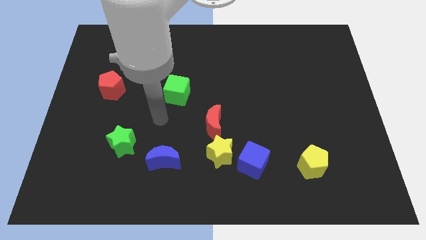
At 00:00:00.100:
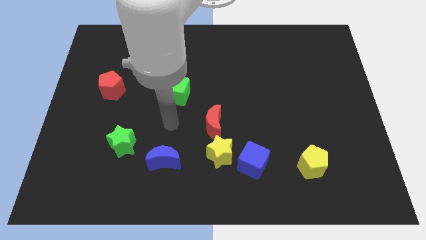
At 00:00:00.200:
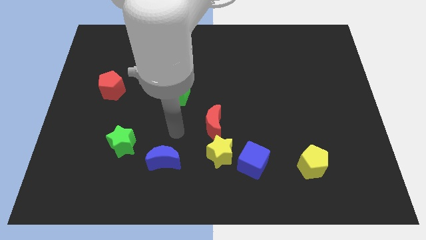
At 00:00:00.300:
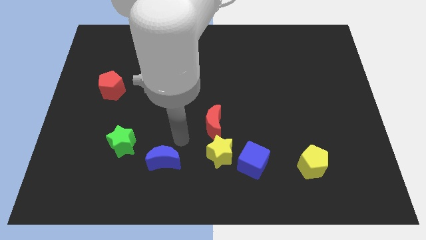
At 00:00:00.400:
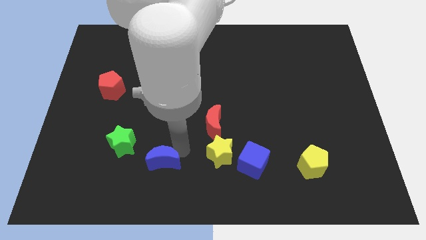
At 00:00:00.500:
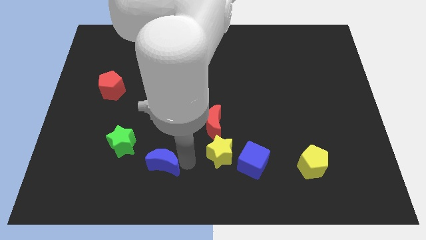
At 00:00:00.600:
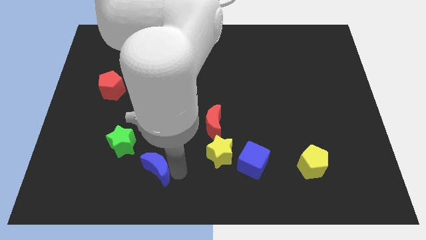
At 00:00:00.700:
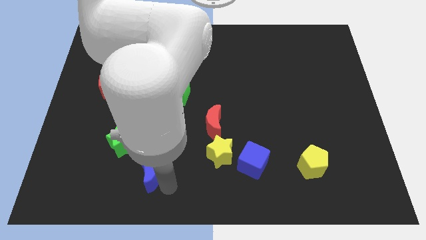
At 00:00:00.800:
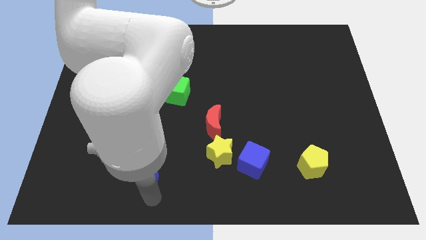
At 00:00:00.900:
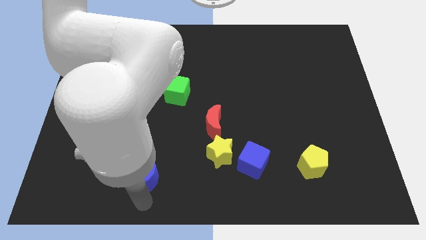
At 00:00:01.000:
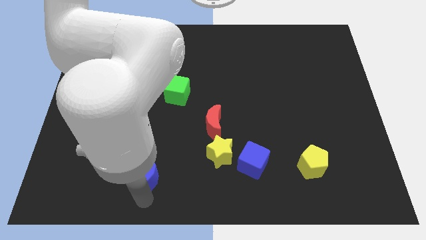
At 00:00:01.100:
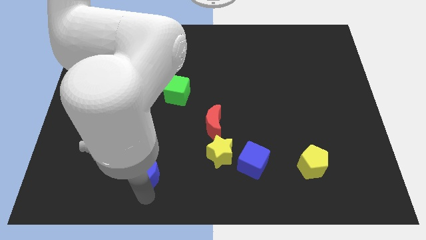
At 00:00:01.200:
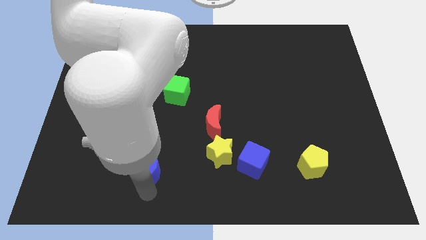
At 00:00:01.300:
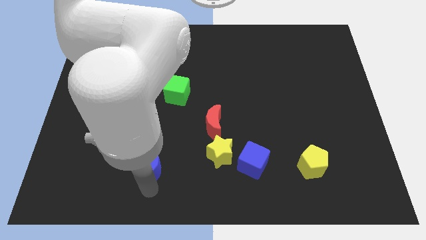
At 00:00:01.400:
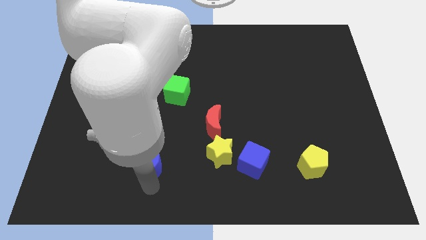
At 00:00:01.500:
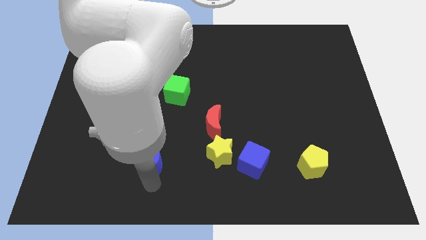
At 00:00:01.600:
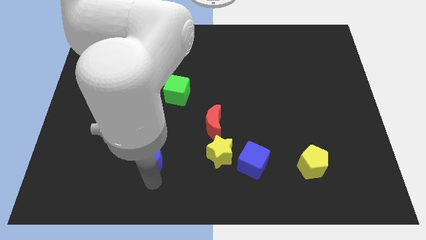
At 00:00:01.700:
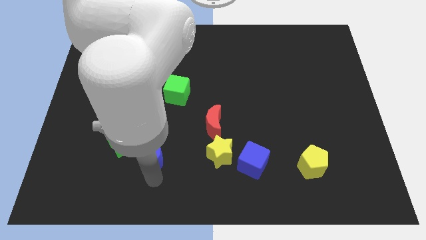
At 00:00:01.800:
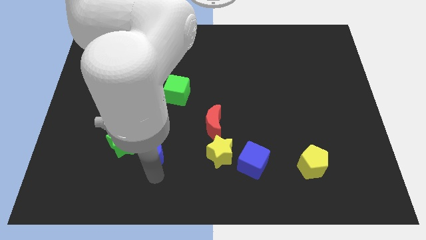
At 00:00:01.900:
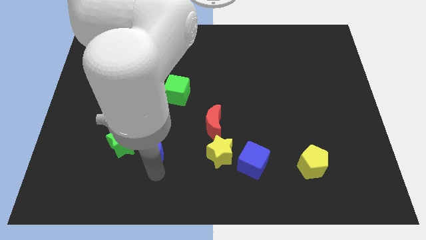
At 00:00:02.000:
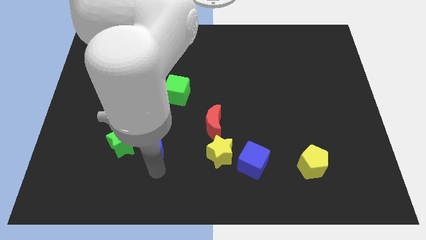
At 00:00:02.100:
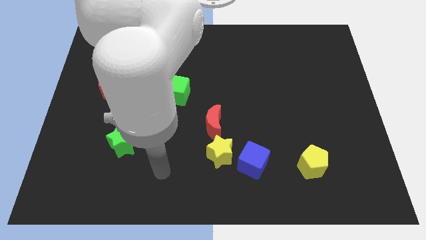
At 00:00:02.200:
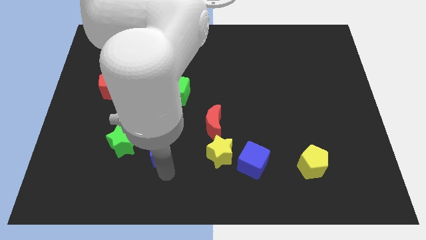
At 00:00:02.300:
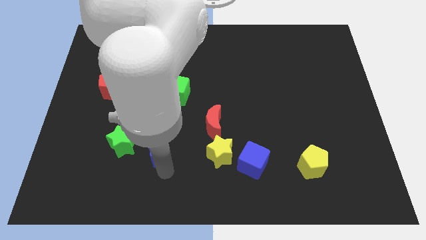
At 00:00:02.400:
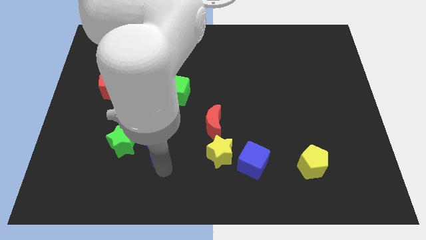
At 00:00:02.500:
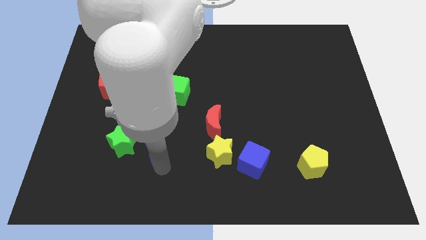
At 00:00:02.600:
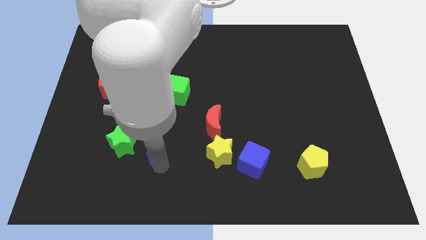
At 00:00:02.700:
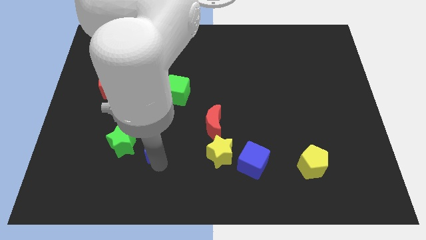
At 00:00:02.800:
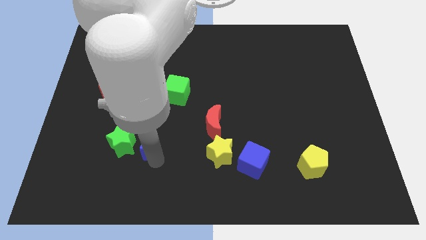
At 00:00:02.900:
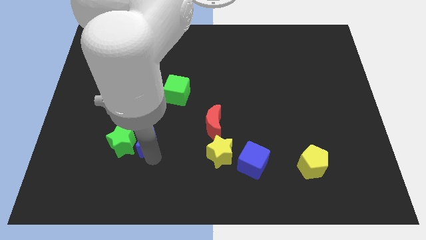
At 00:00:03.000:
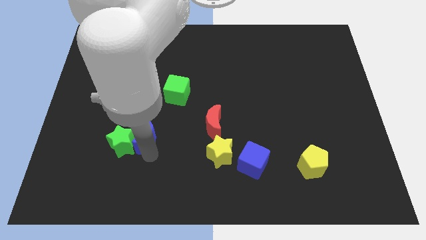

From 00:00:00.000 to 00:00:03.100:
push the blue moon slightly up and then to the left

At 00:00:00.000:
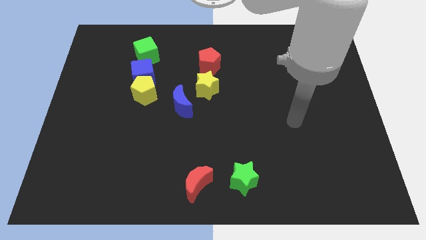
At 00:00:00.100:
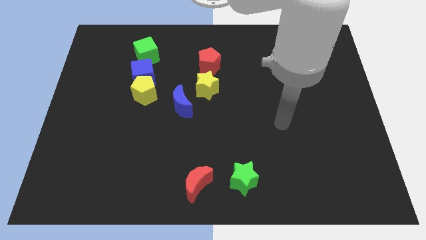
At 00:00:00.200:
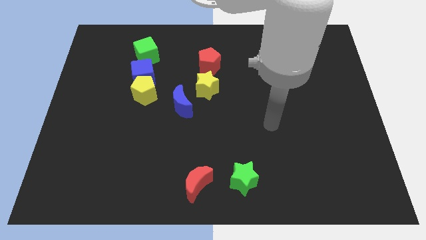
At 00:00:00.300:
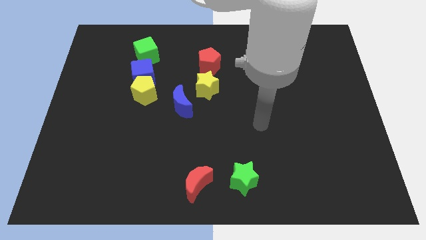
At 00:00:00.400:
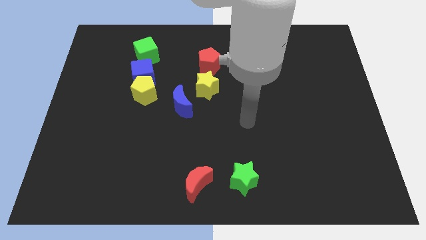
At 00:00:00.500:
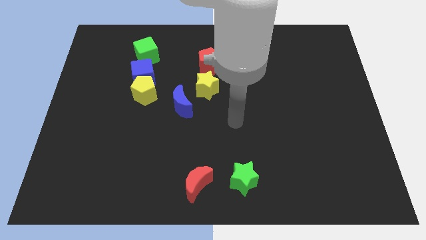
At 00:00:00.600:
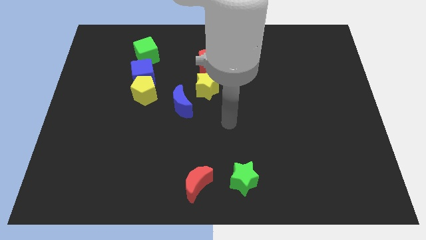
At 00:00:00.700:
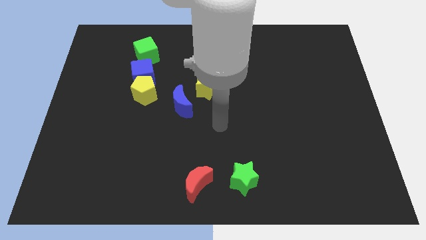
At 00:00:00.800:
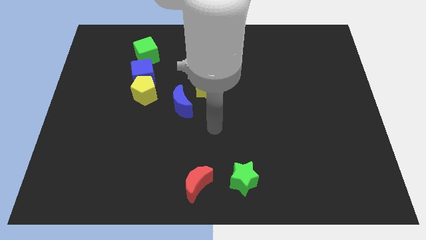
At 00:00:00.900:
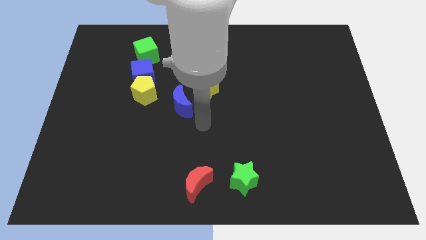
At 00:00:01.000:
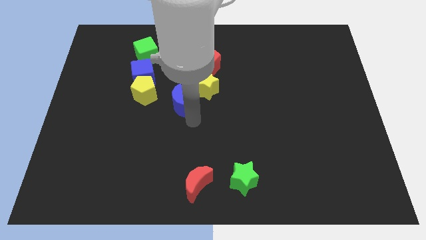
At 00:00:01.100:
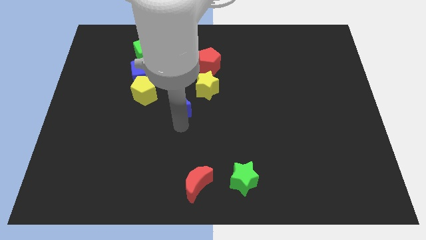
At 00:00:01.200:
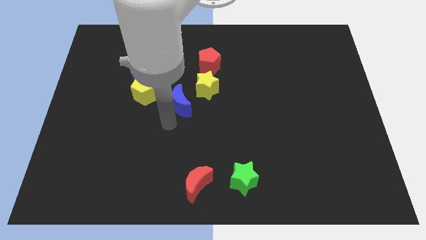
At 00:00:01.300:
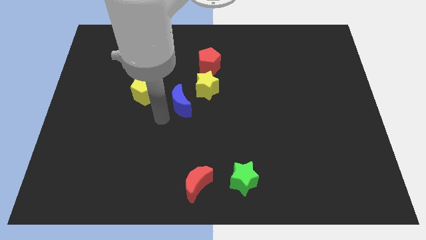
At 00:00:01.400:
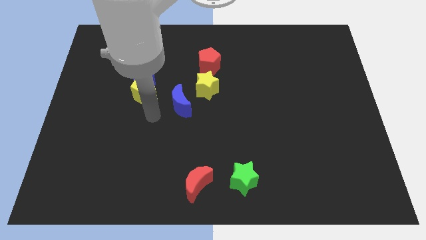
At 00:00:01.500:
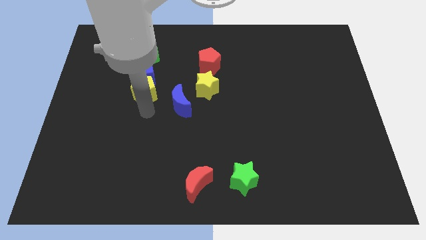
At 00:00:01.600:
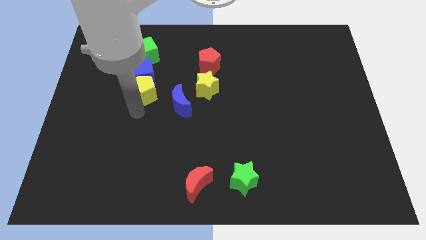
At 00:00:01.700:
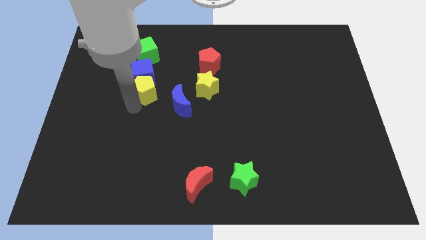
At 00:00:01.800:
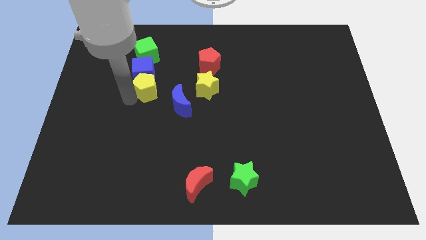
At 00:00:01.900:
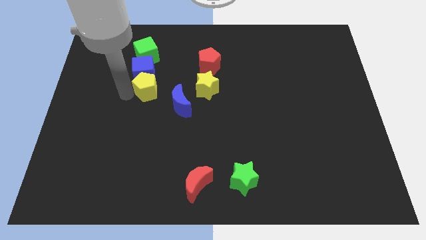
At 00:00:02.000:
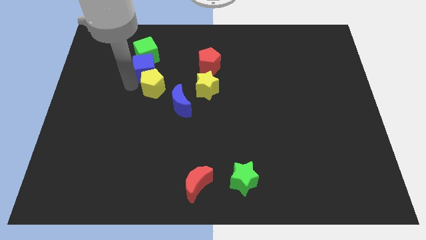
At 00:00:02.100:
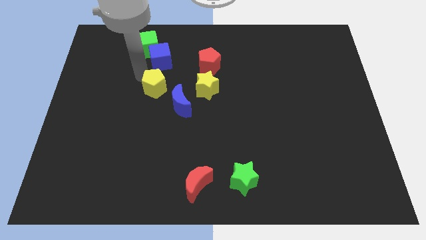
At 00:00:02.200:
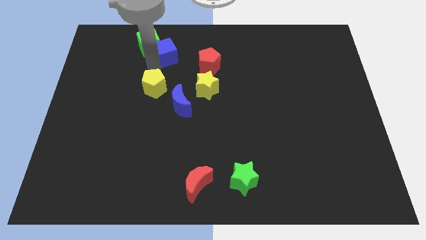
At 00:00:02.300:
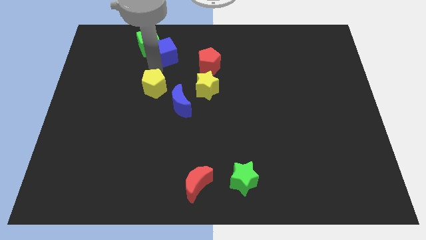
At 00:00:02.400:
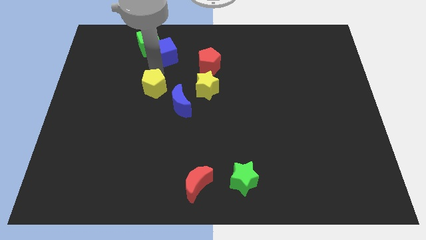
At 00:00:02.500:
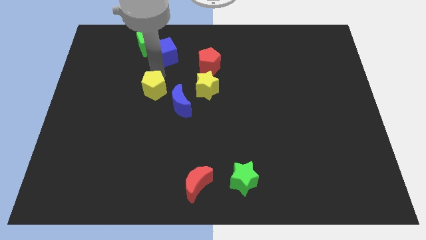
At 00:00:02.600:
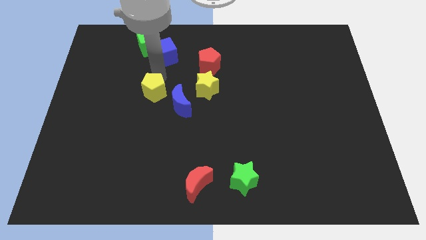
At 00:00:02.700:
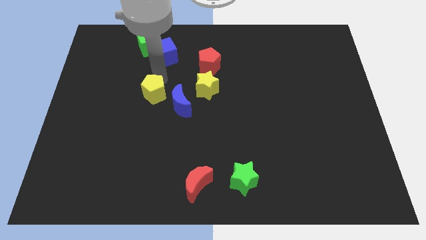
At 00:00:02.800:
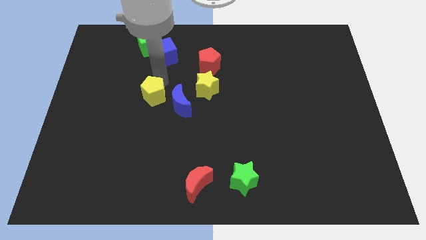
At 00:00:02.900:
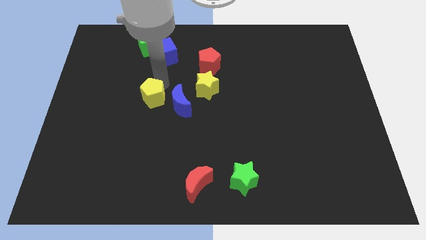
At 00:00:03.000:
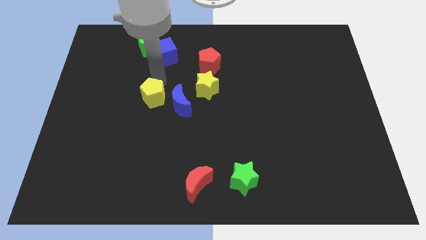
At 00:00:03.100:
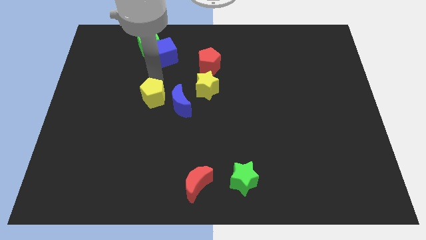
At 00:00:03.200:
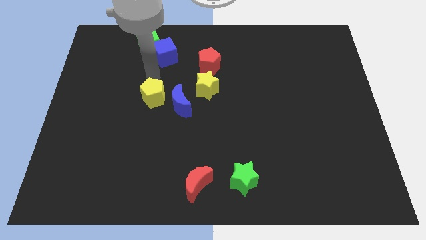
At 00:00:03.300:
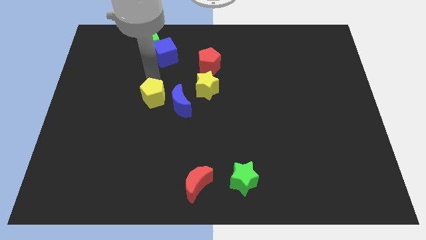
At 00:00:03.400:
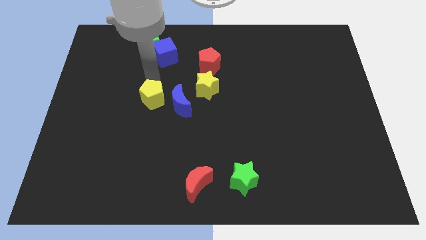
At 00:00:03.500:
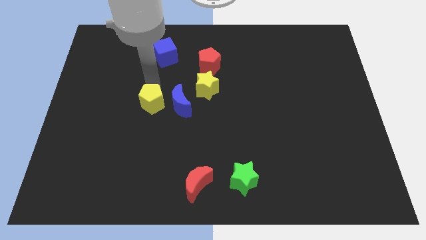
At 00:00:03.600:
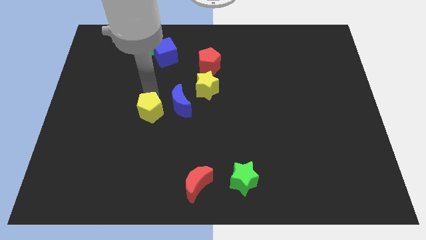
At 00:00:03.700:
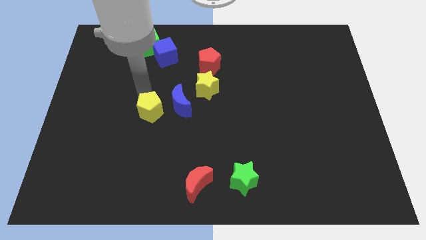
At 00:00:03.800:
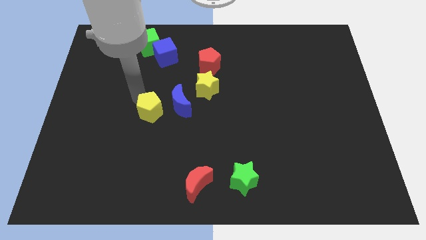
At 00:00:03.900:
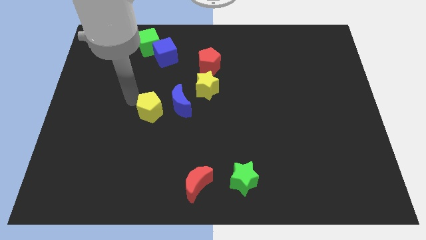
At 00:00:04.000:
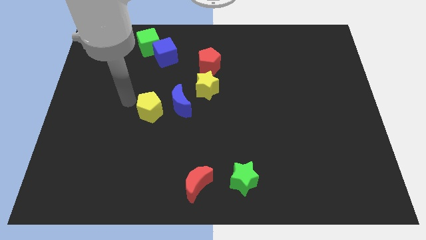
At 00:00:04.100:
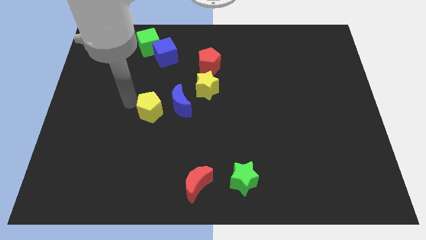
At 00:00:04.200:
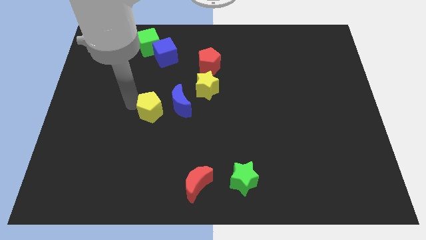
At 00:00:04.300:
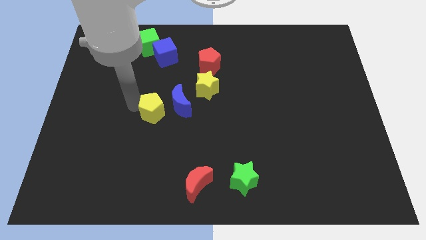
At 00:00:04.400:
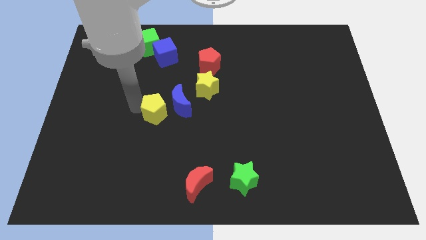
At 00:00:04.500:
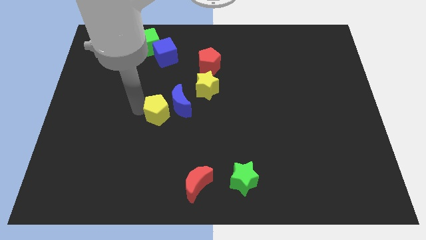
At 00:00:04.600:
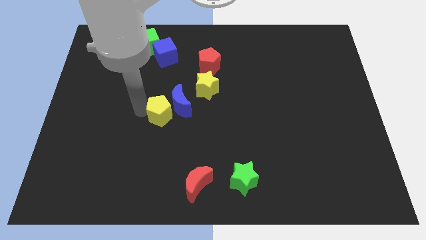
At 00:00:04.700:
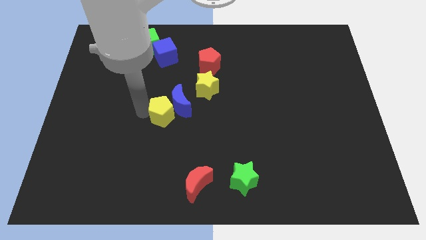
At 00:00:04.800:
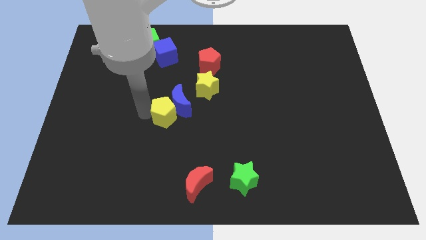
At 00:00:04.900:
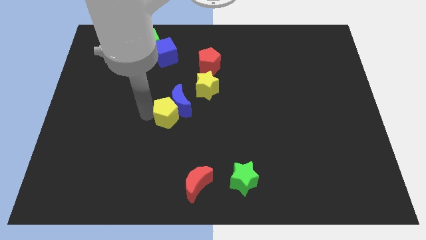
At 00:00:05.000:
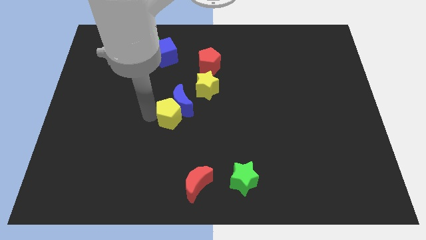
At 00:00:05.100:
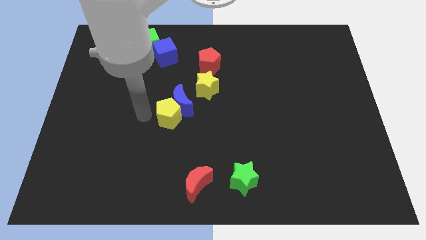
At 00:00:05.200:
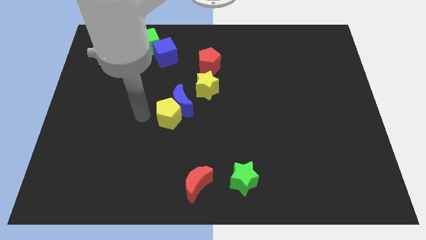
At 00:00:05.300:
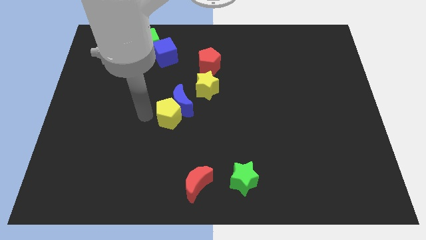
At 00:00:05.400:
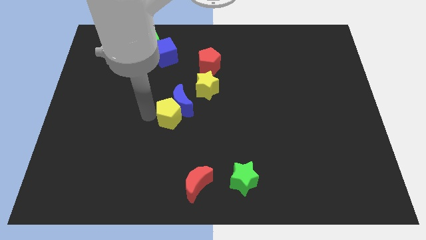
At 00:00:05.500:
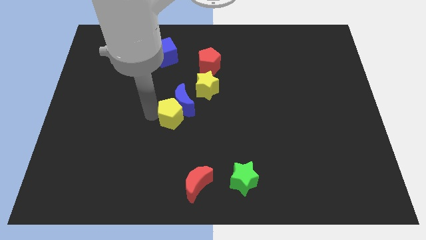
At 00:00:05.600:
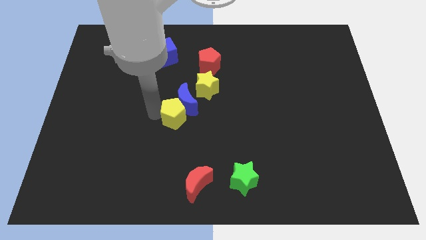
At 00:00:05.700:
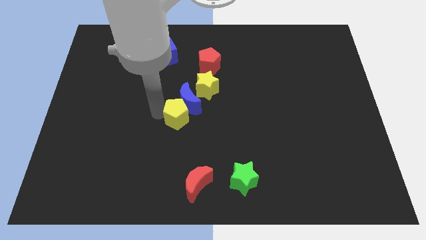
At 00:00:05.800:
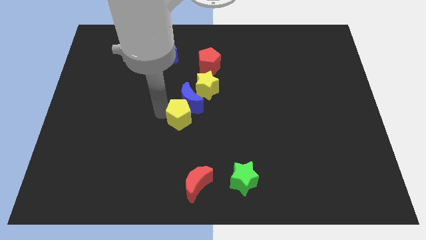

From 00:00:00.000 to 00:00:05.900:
slightly slide the yellow pentagon to the right
